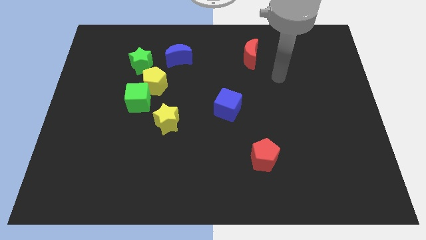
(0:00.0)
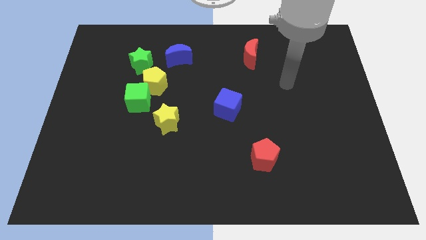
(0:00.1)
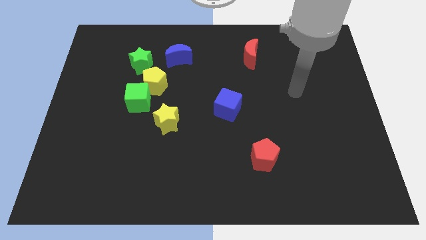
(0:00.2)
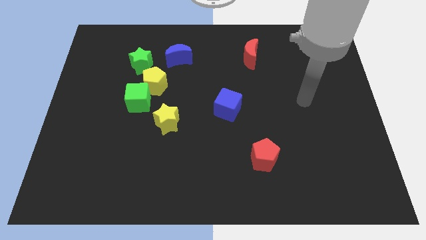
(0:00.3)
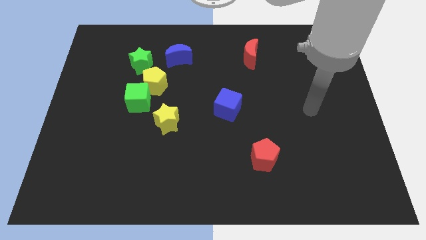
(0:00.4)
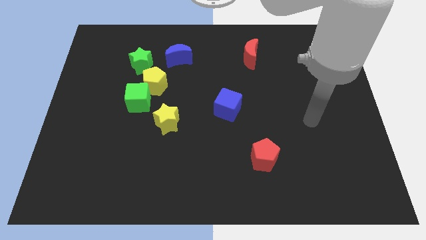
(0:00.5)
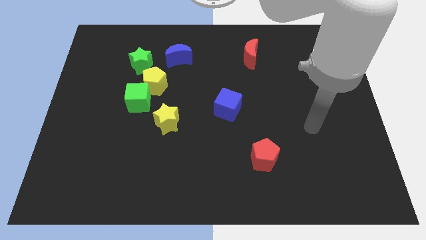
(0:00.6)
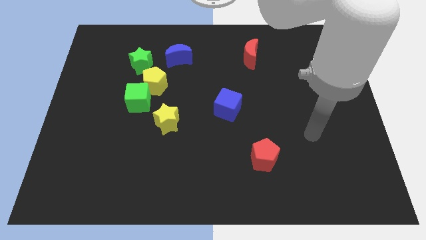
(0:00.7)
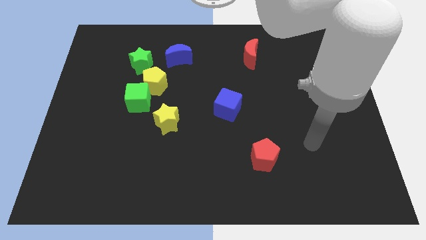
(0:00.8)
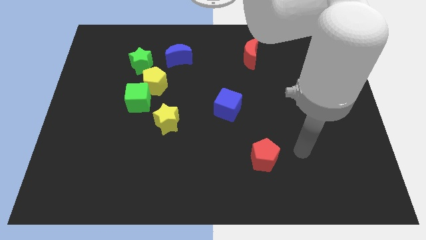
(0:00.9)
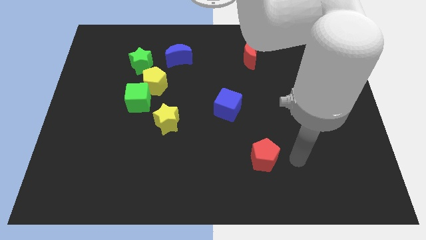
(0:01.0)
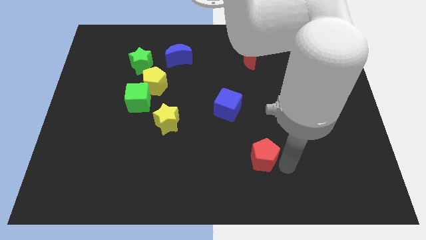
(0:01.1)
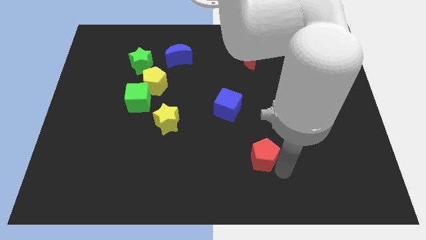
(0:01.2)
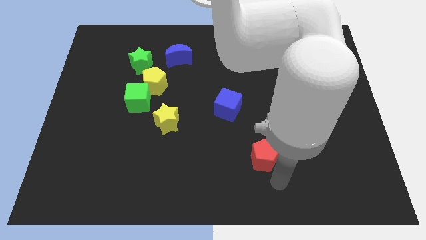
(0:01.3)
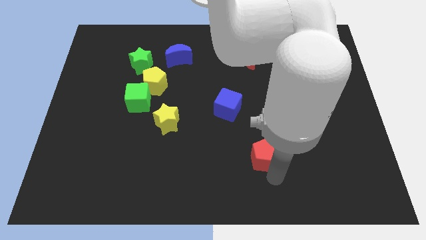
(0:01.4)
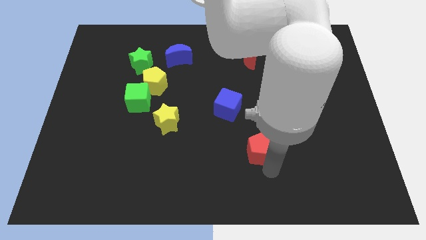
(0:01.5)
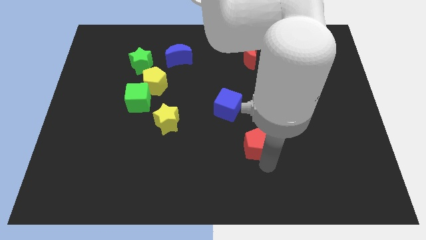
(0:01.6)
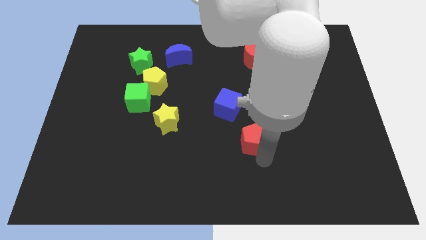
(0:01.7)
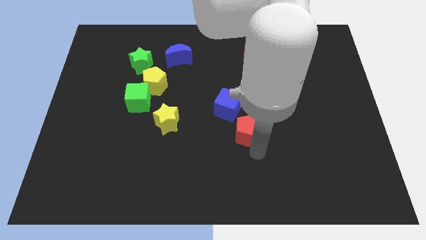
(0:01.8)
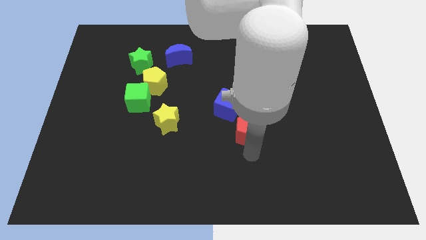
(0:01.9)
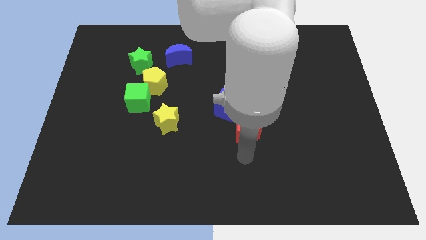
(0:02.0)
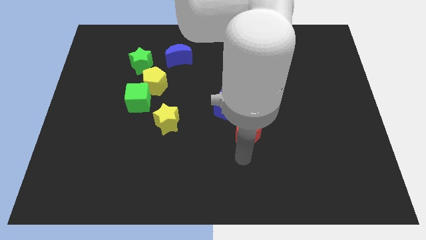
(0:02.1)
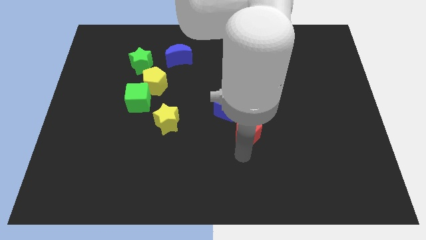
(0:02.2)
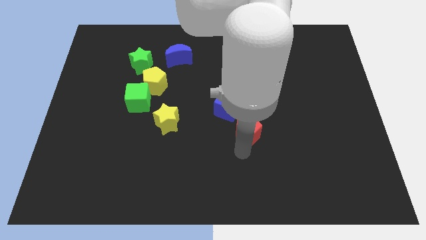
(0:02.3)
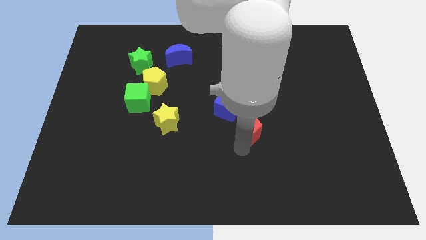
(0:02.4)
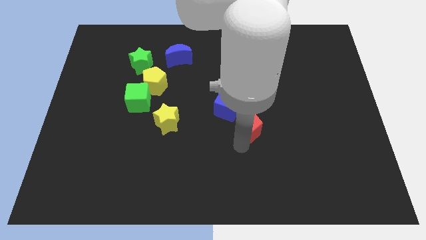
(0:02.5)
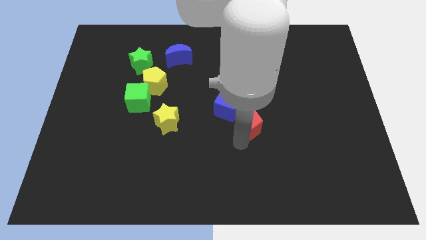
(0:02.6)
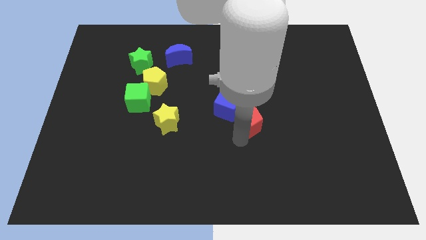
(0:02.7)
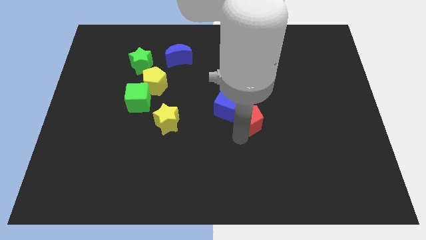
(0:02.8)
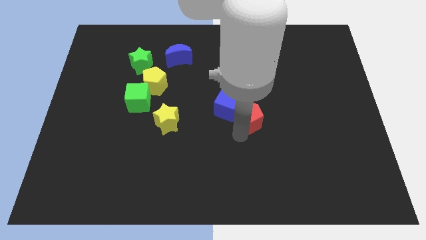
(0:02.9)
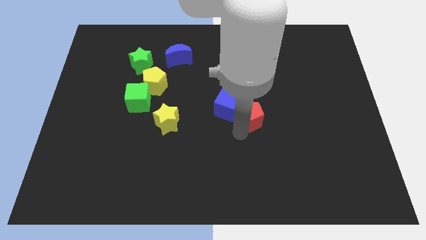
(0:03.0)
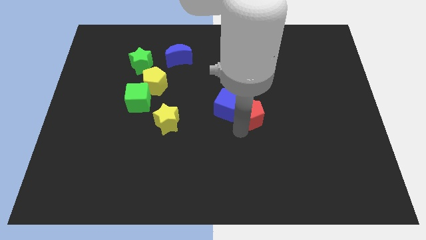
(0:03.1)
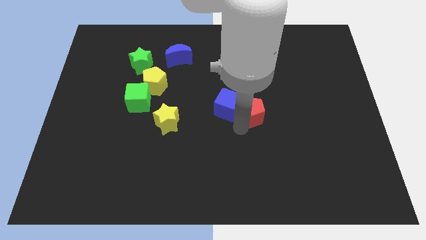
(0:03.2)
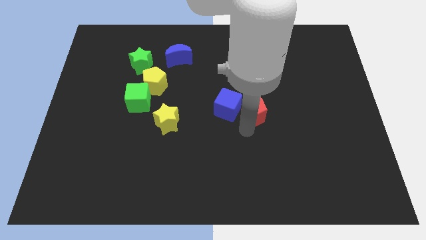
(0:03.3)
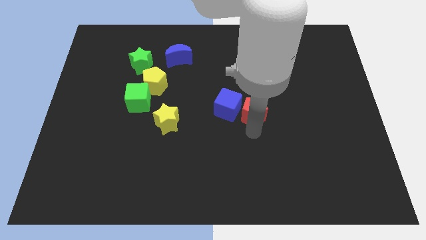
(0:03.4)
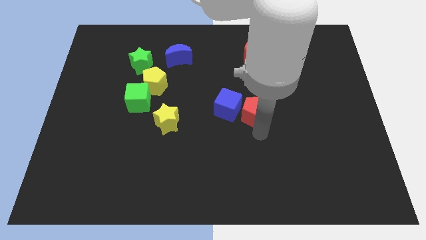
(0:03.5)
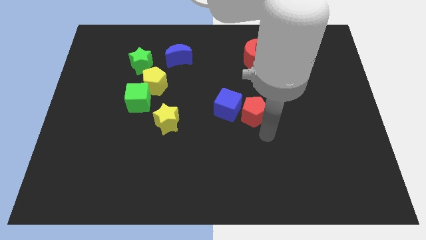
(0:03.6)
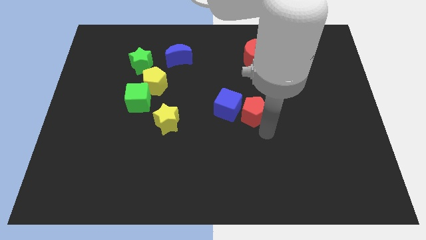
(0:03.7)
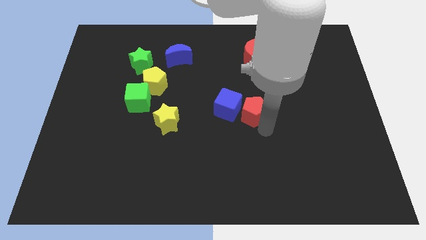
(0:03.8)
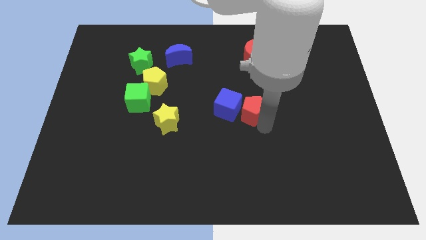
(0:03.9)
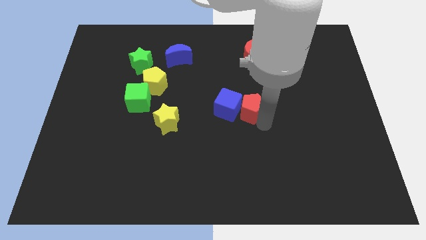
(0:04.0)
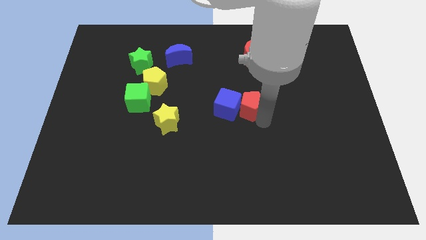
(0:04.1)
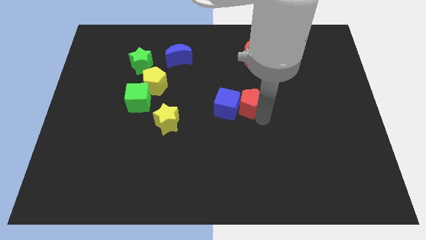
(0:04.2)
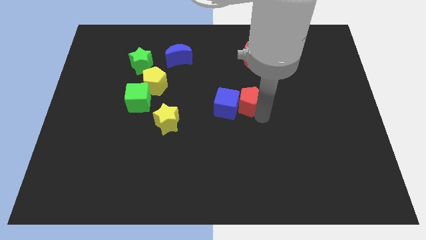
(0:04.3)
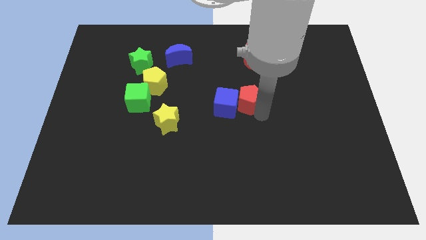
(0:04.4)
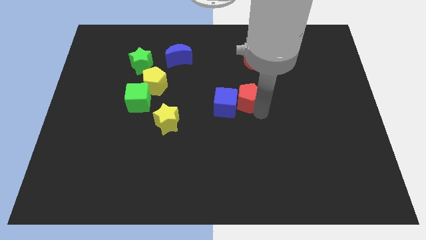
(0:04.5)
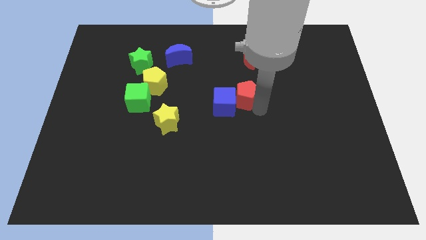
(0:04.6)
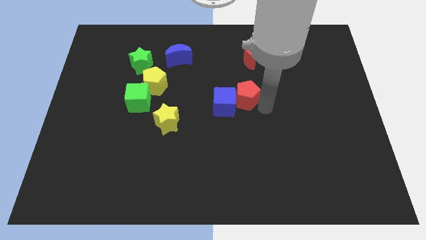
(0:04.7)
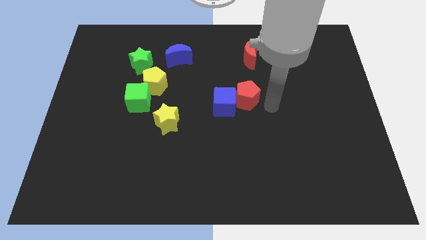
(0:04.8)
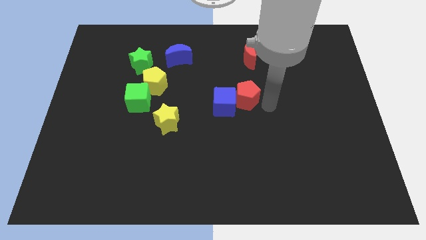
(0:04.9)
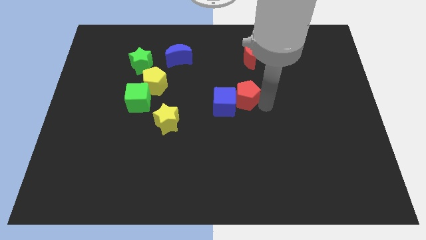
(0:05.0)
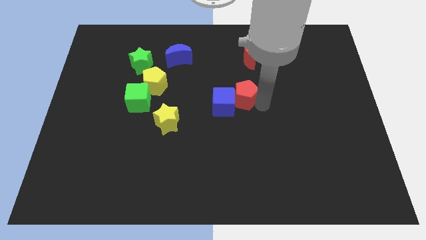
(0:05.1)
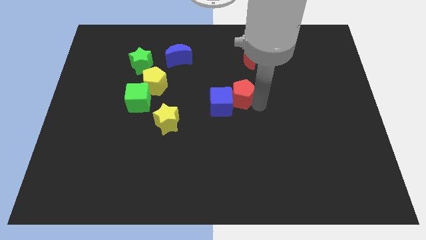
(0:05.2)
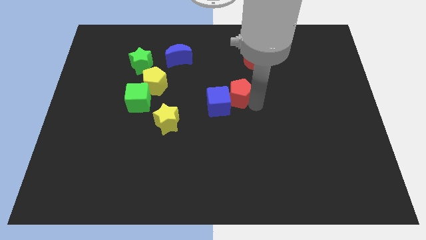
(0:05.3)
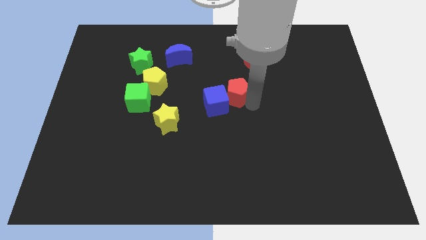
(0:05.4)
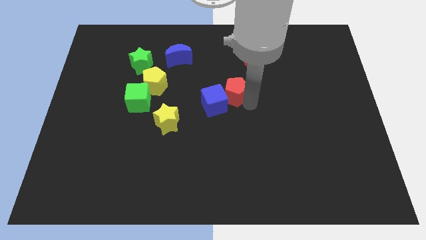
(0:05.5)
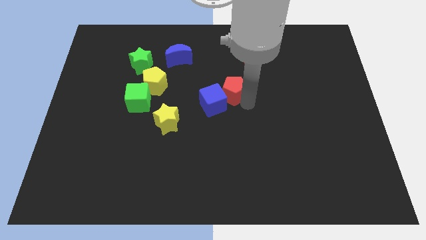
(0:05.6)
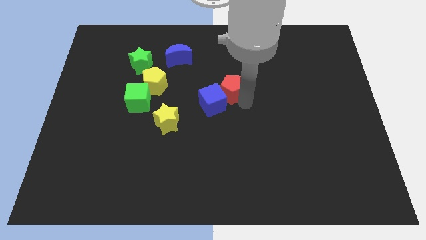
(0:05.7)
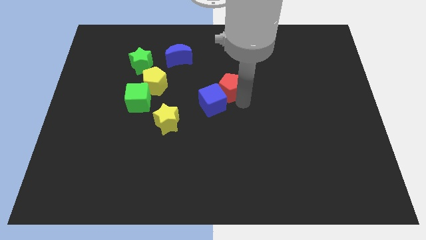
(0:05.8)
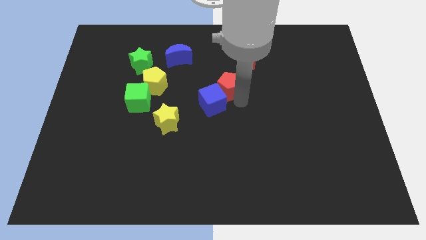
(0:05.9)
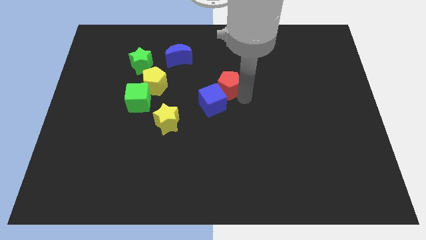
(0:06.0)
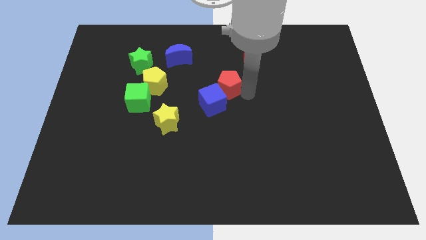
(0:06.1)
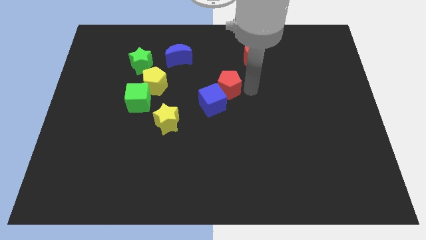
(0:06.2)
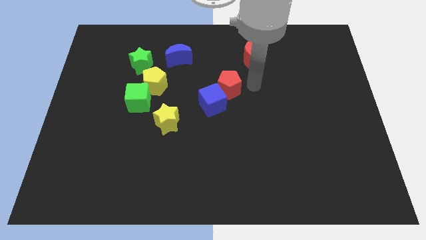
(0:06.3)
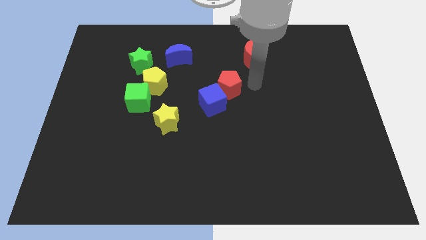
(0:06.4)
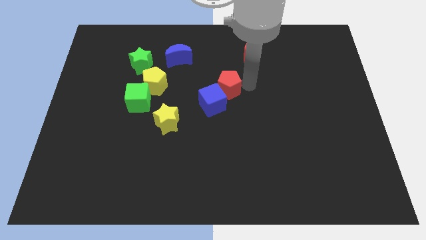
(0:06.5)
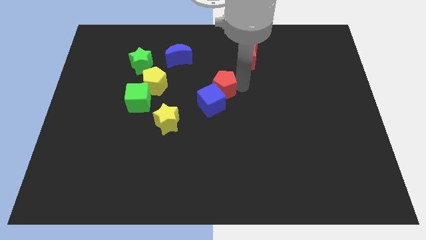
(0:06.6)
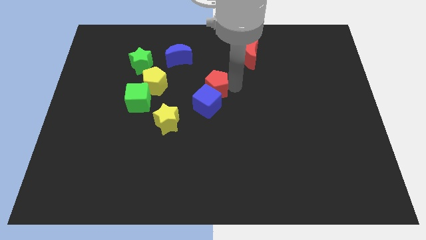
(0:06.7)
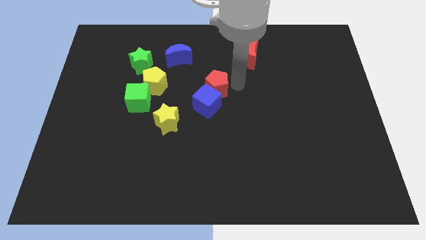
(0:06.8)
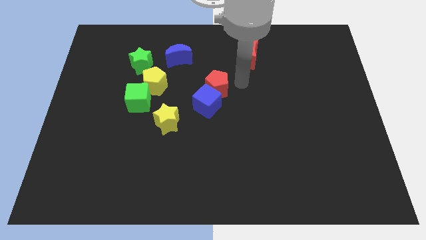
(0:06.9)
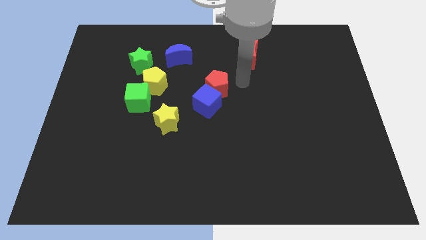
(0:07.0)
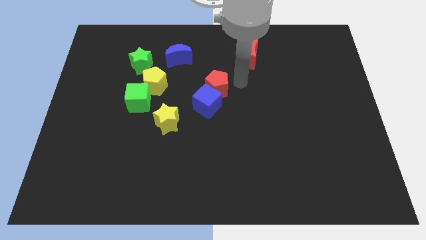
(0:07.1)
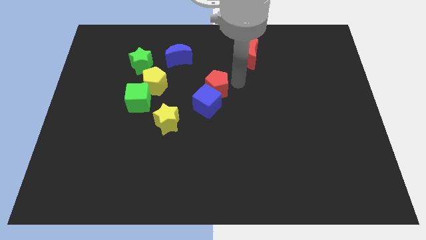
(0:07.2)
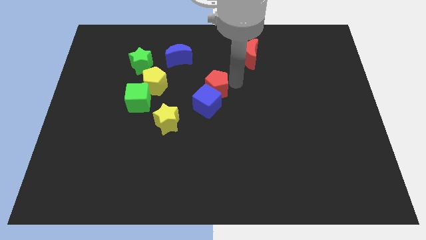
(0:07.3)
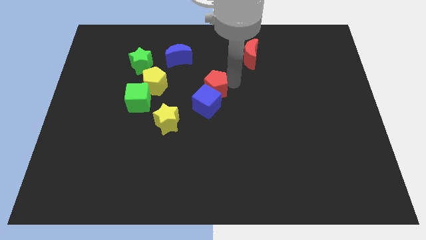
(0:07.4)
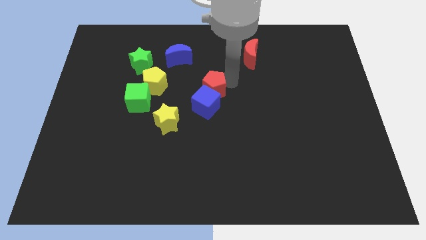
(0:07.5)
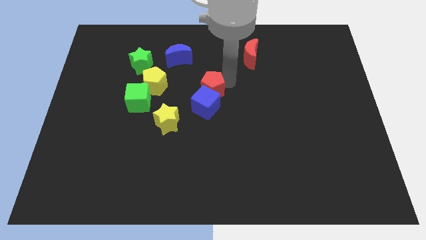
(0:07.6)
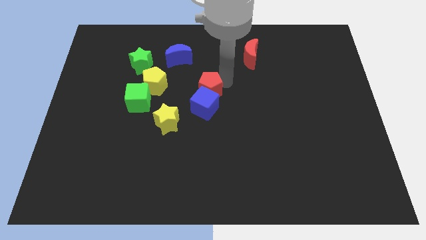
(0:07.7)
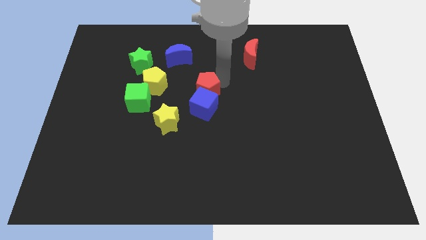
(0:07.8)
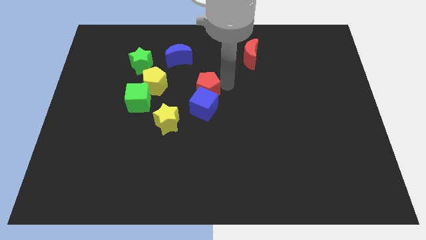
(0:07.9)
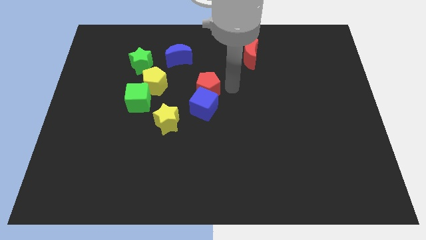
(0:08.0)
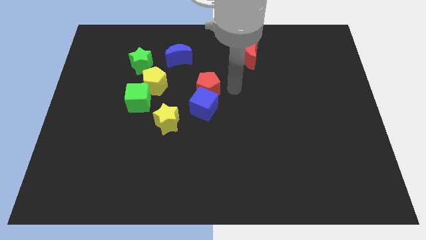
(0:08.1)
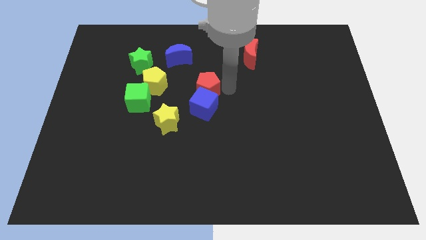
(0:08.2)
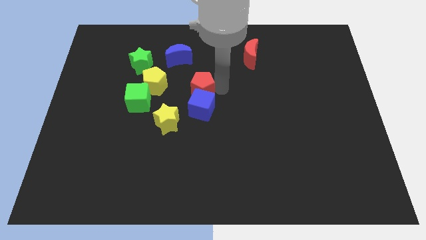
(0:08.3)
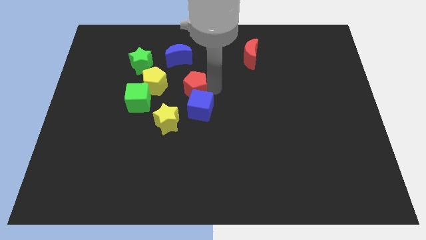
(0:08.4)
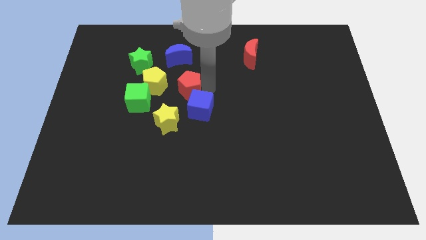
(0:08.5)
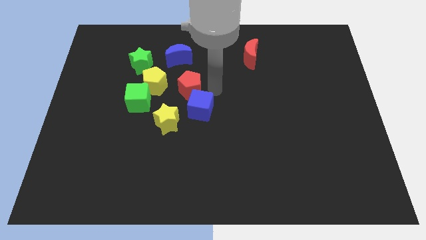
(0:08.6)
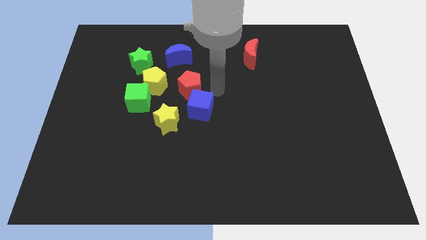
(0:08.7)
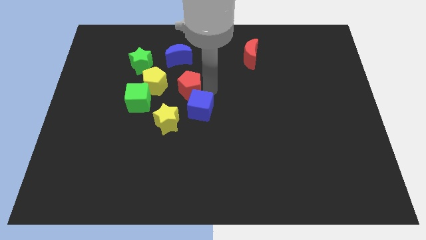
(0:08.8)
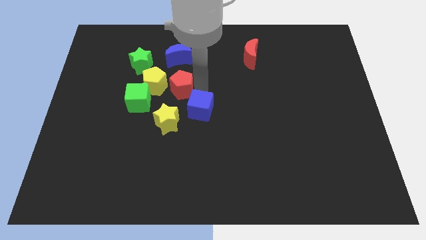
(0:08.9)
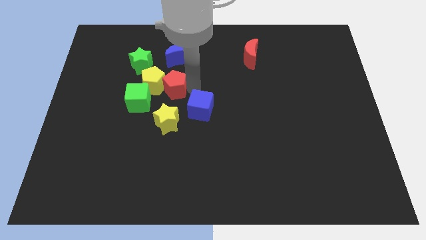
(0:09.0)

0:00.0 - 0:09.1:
slide the red pentagon towards the yellow pentagon
